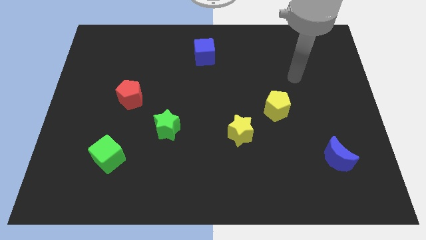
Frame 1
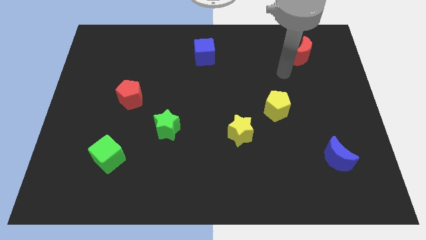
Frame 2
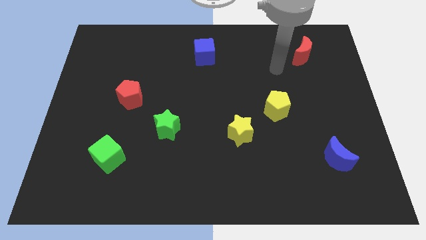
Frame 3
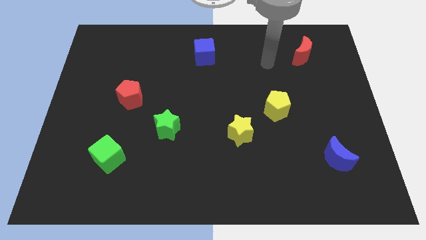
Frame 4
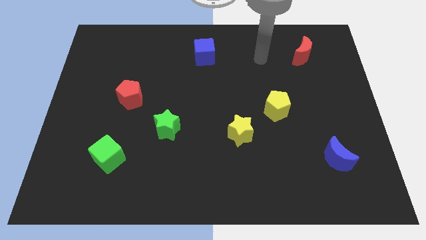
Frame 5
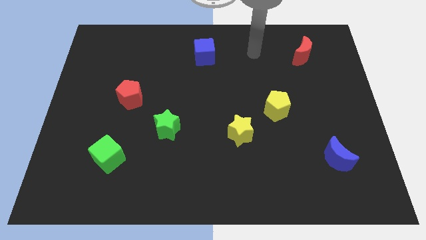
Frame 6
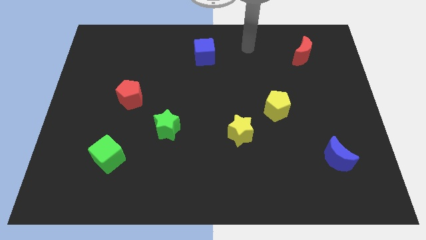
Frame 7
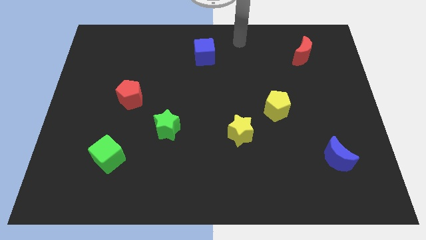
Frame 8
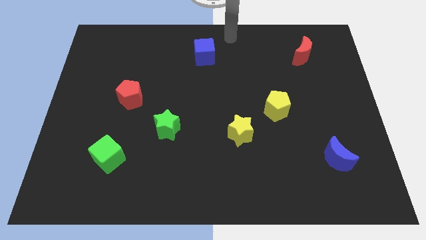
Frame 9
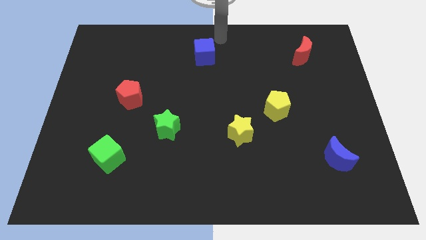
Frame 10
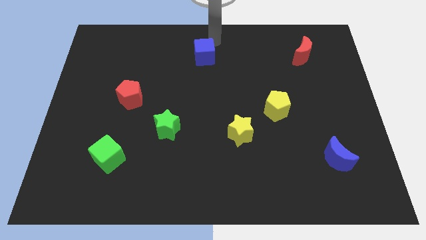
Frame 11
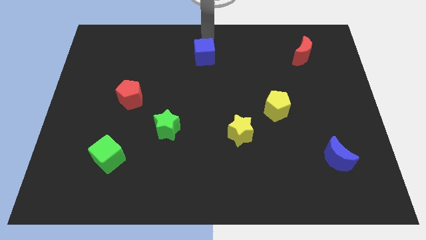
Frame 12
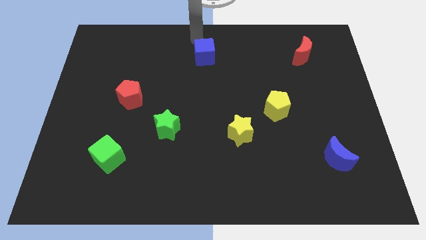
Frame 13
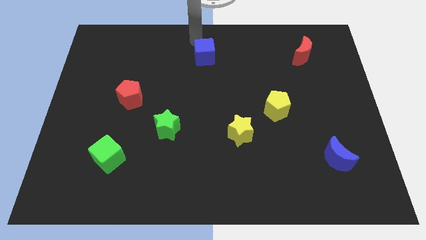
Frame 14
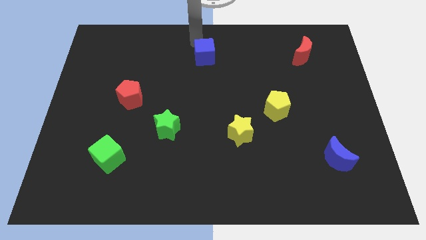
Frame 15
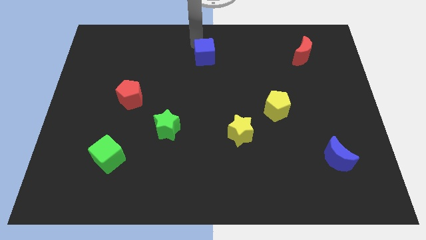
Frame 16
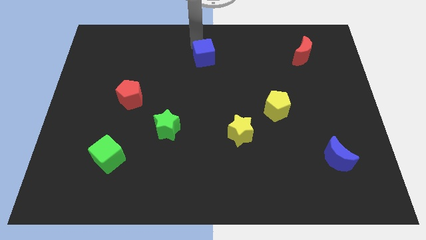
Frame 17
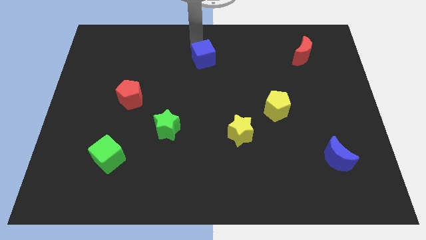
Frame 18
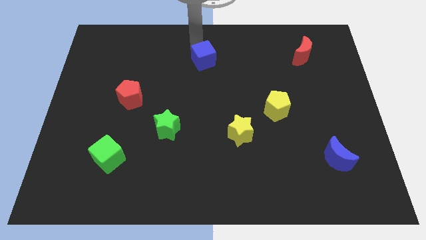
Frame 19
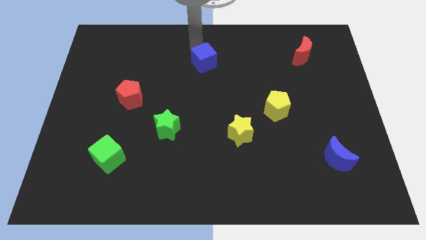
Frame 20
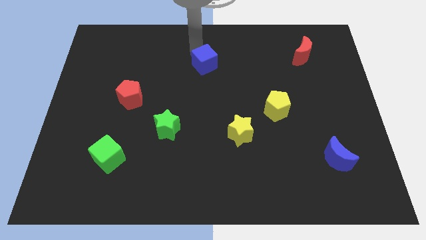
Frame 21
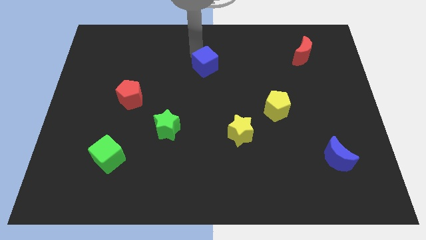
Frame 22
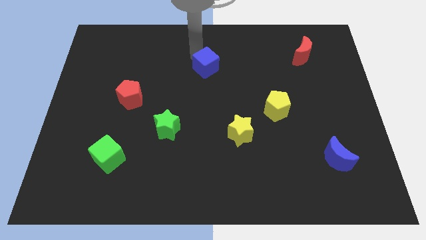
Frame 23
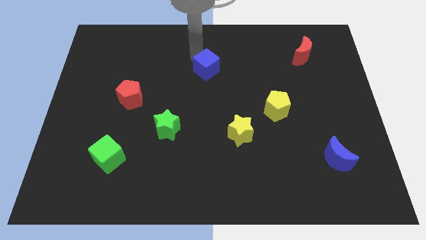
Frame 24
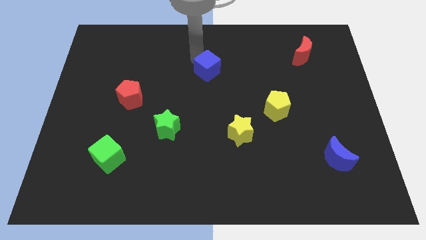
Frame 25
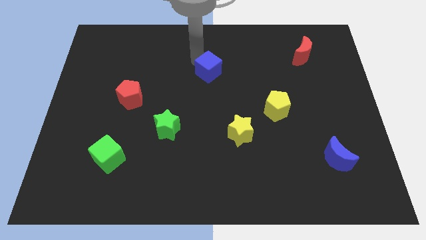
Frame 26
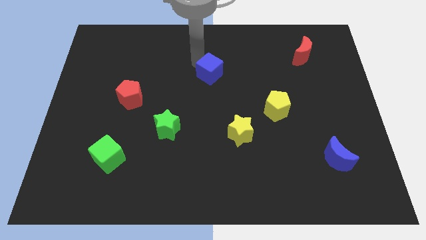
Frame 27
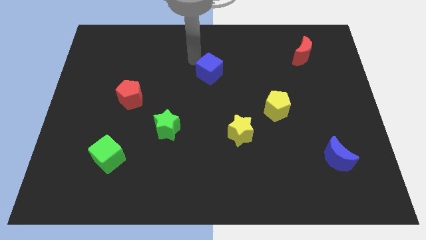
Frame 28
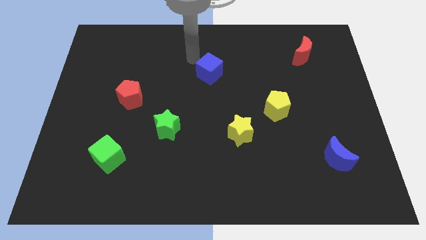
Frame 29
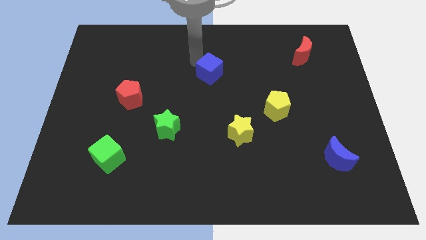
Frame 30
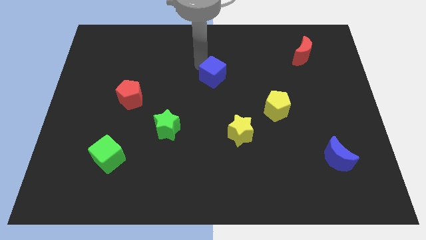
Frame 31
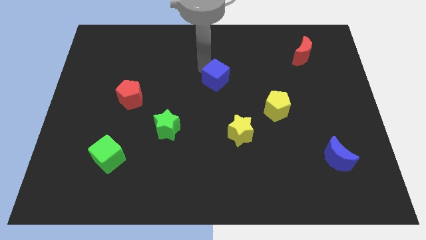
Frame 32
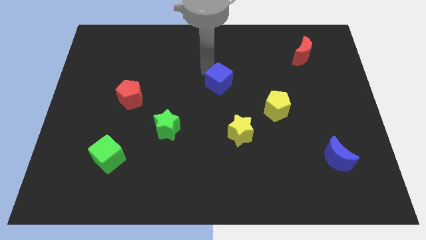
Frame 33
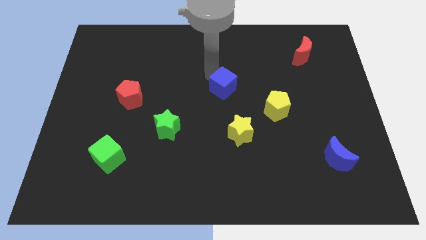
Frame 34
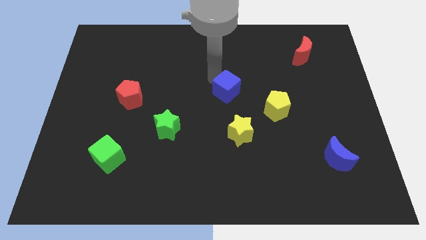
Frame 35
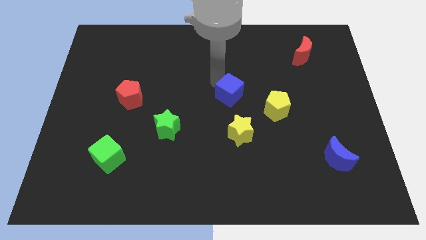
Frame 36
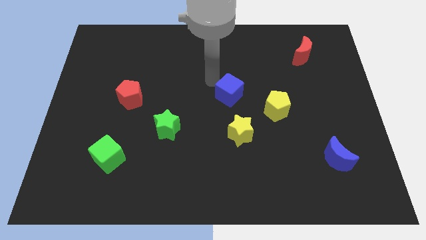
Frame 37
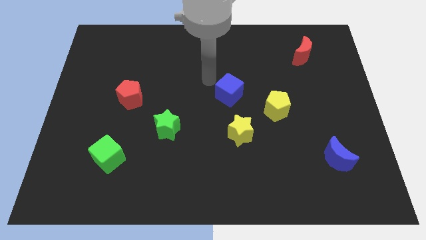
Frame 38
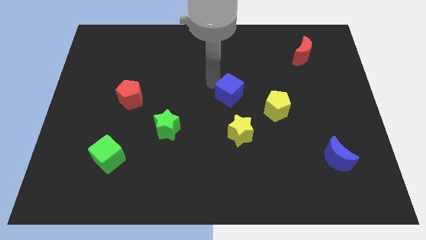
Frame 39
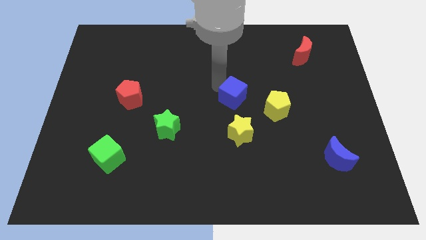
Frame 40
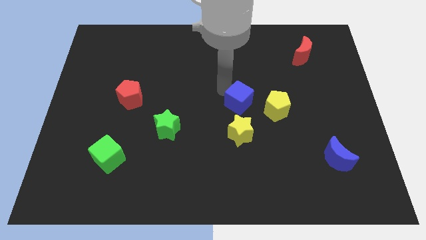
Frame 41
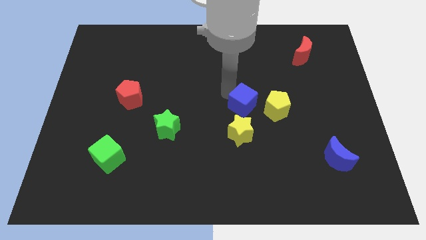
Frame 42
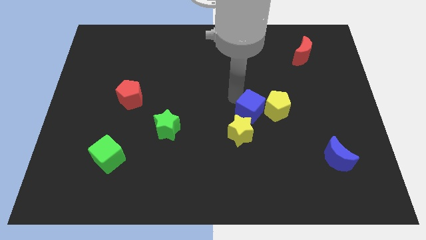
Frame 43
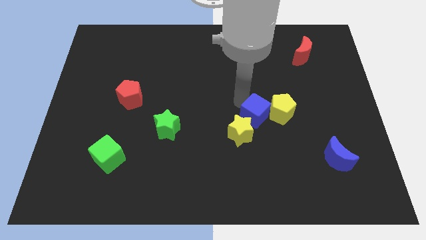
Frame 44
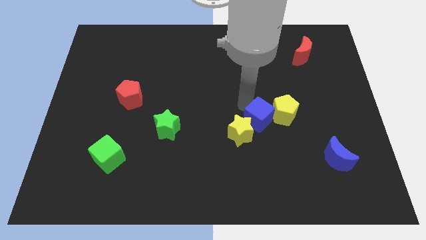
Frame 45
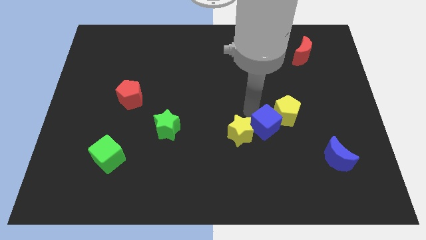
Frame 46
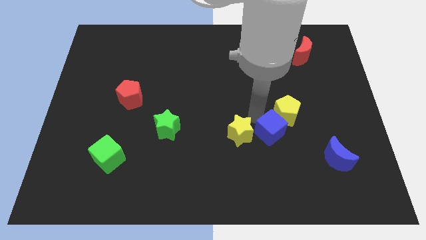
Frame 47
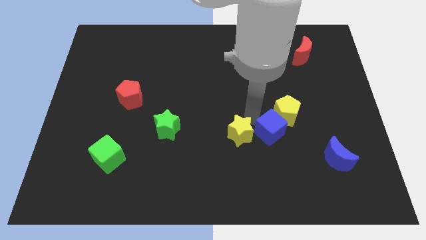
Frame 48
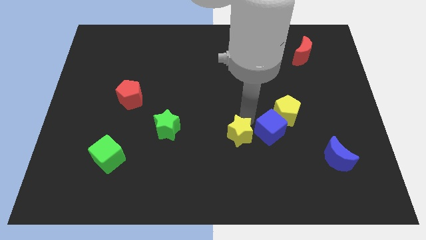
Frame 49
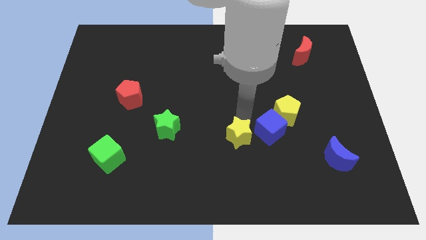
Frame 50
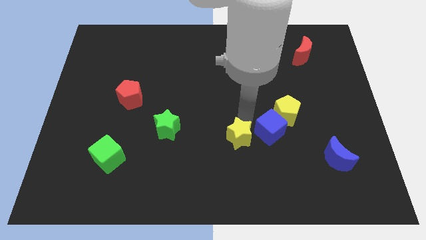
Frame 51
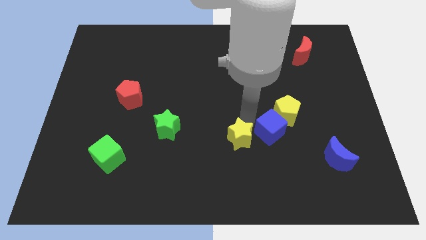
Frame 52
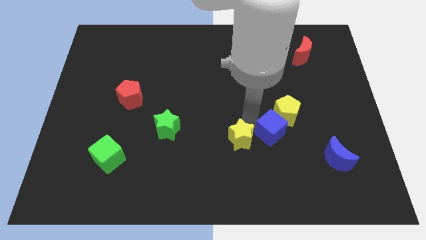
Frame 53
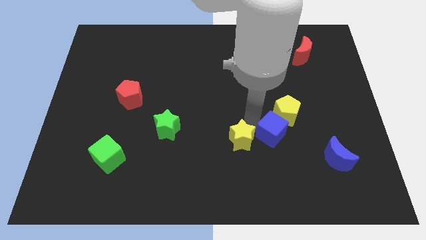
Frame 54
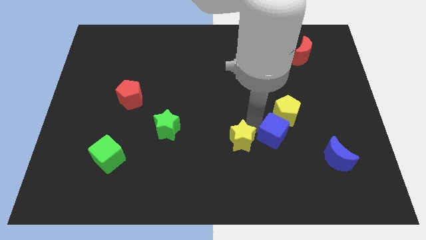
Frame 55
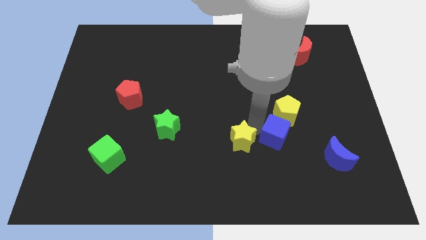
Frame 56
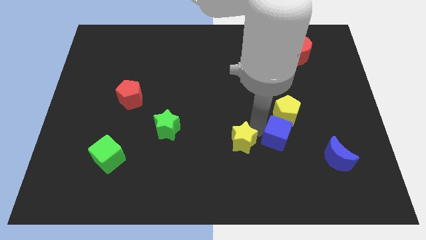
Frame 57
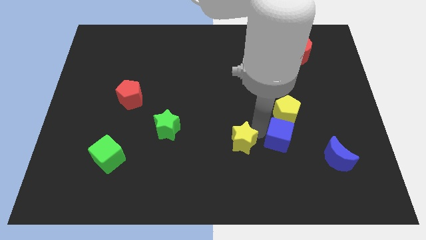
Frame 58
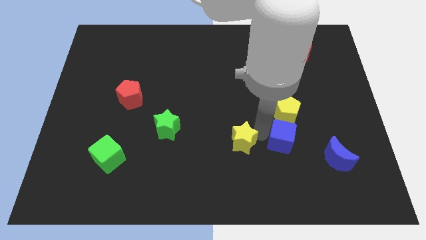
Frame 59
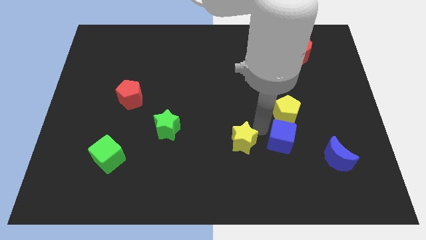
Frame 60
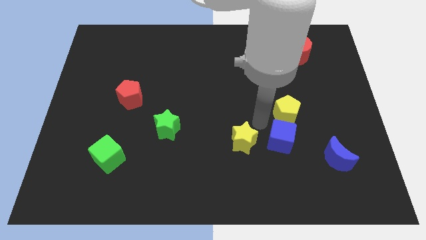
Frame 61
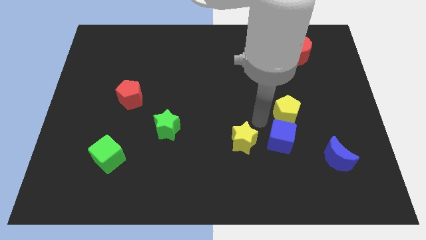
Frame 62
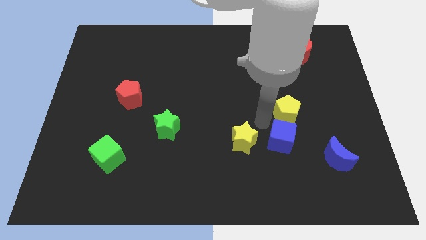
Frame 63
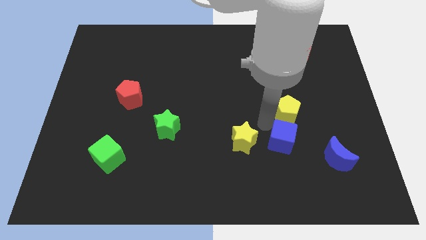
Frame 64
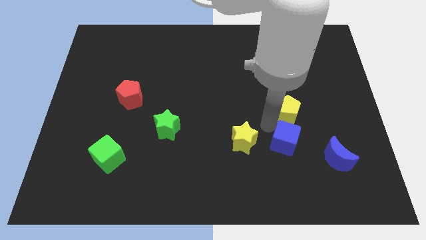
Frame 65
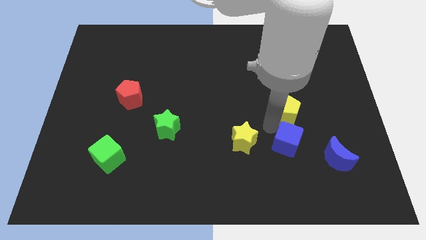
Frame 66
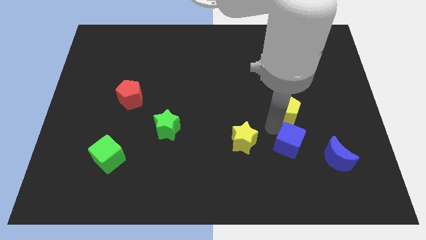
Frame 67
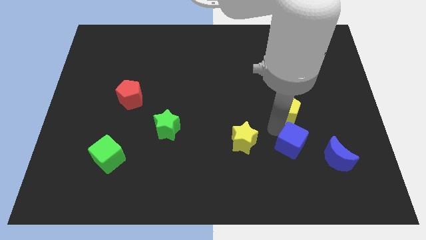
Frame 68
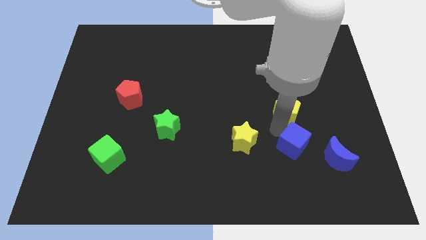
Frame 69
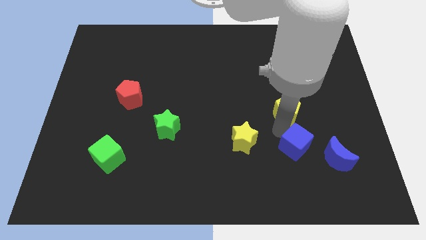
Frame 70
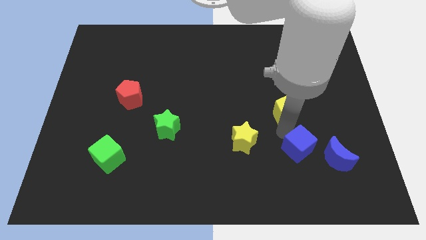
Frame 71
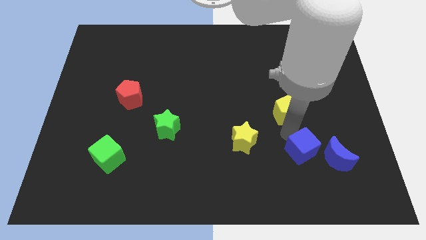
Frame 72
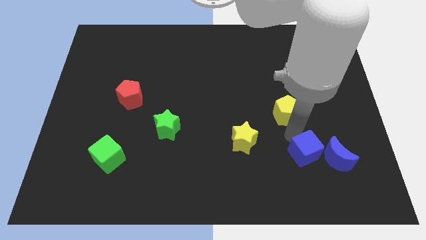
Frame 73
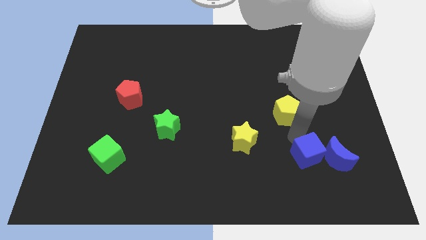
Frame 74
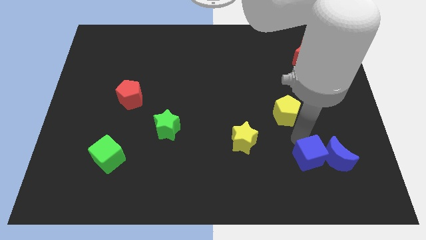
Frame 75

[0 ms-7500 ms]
slide the blue cube to the bottom left of the blue moon

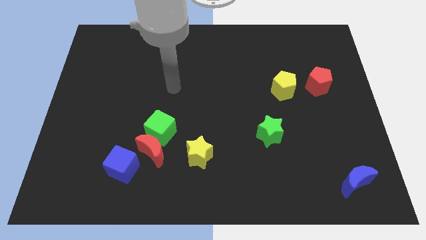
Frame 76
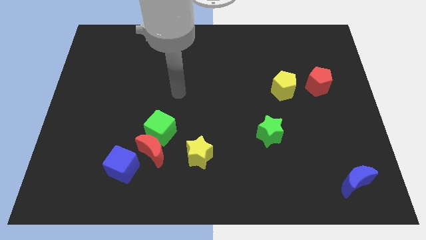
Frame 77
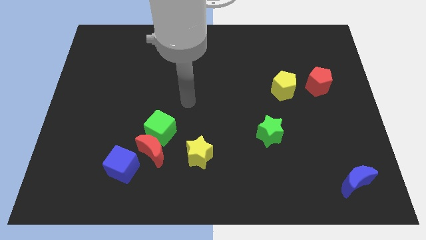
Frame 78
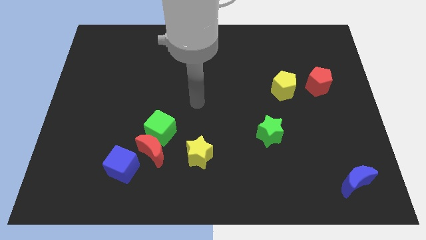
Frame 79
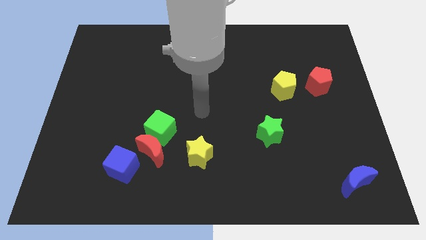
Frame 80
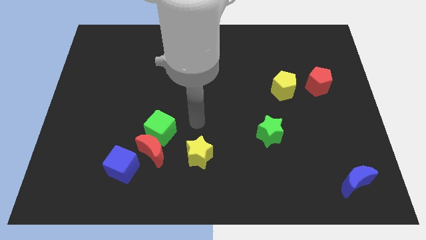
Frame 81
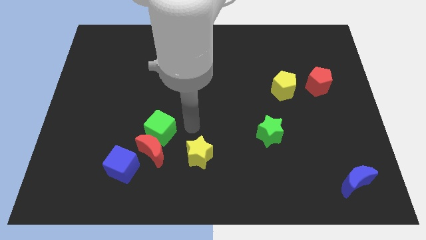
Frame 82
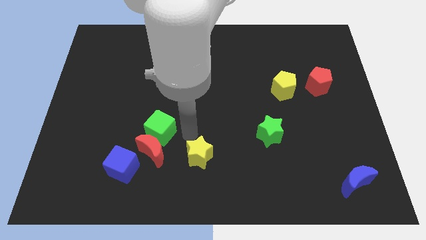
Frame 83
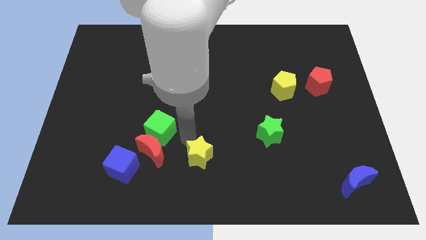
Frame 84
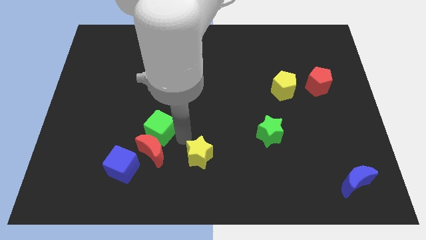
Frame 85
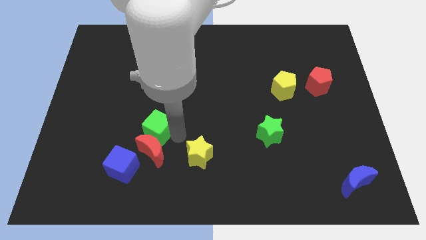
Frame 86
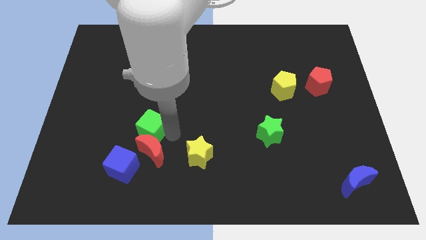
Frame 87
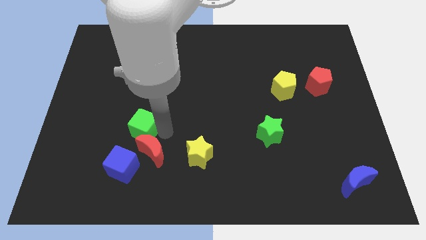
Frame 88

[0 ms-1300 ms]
move the green cube to the top side of the blue cube
